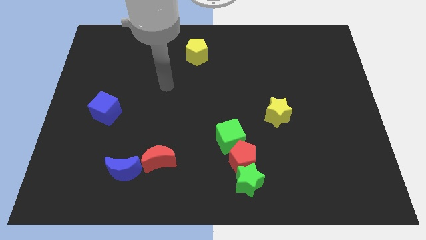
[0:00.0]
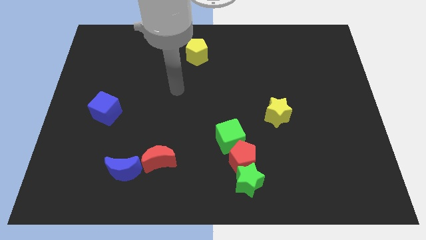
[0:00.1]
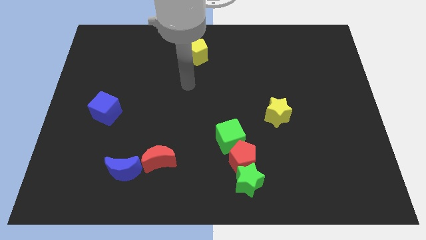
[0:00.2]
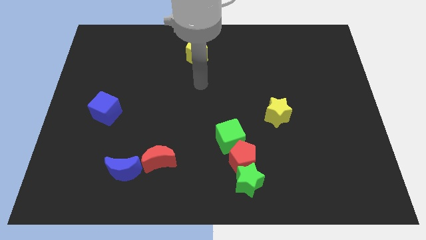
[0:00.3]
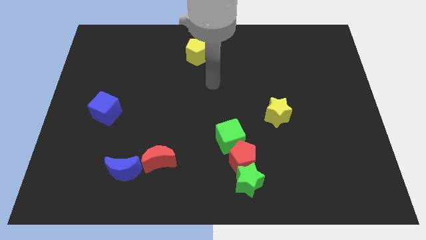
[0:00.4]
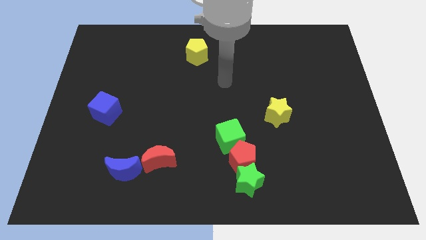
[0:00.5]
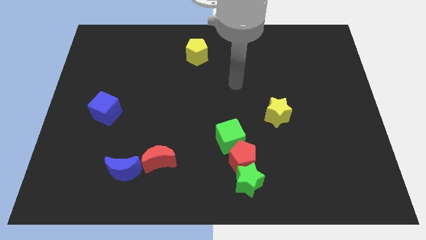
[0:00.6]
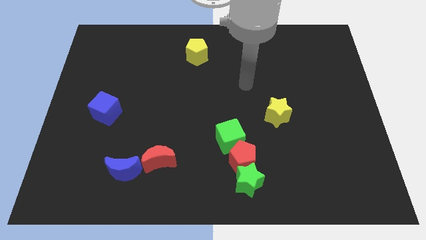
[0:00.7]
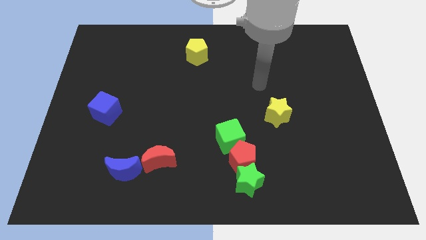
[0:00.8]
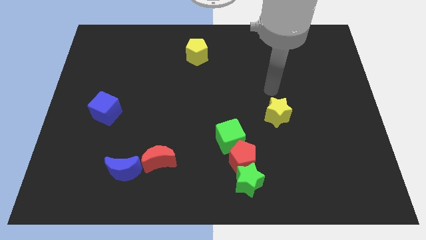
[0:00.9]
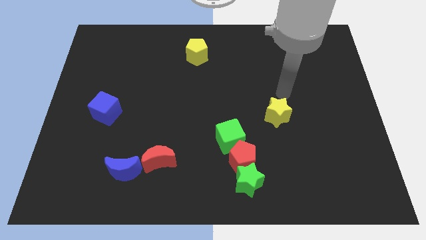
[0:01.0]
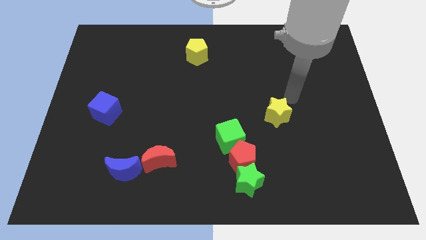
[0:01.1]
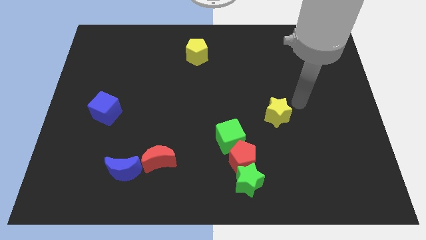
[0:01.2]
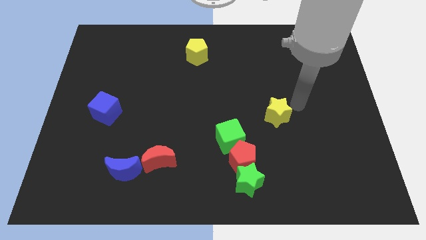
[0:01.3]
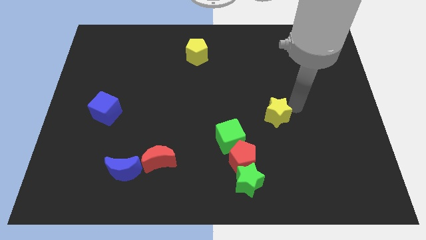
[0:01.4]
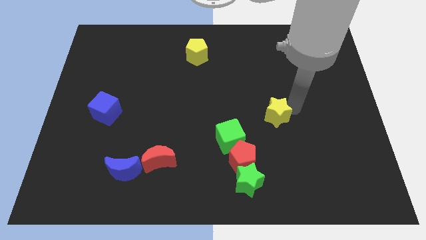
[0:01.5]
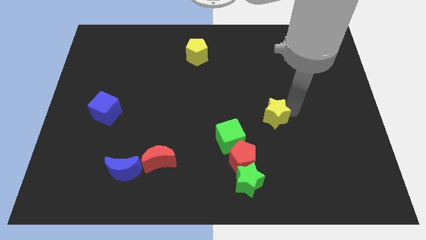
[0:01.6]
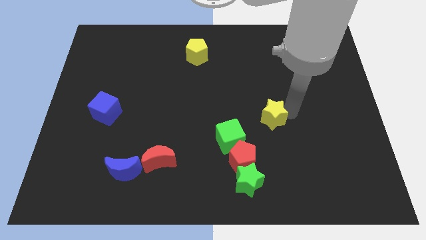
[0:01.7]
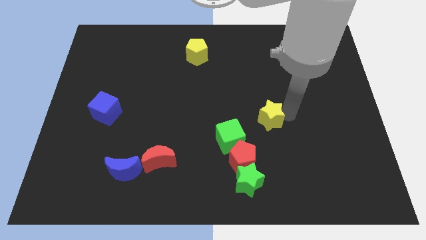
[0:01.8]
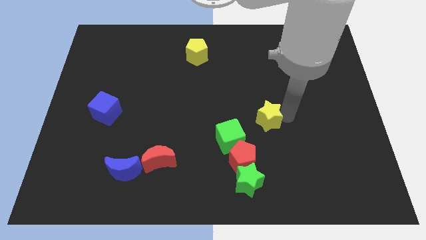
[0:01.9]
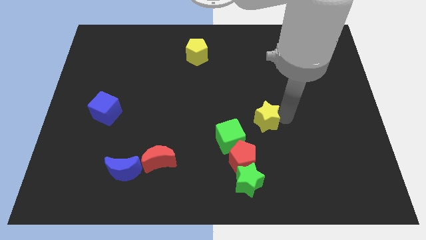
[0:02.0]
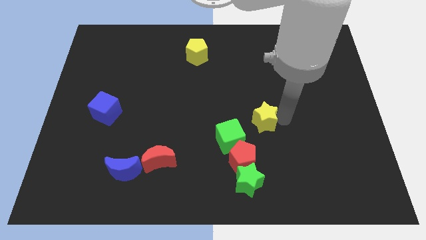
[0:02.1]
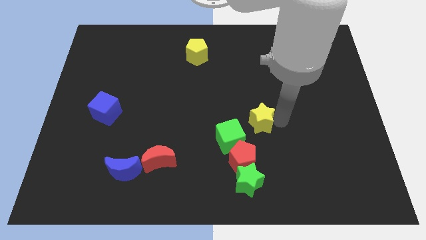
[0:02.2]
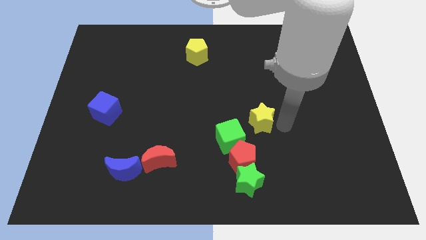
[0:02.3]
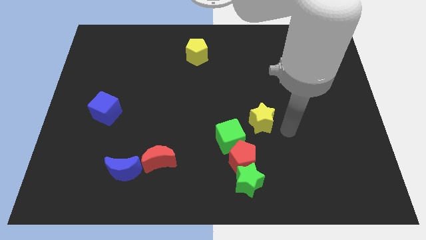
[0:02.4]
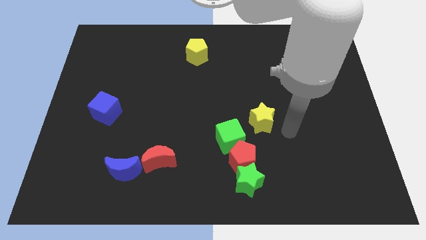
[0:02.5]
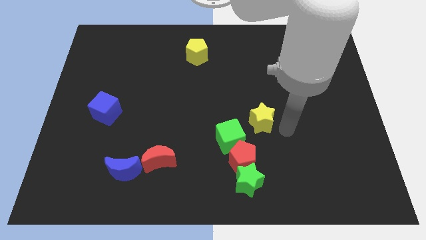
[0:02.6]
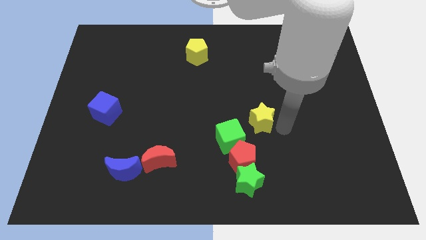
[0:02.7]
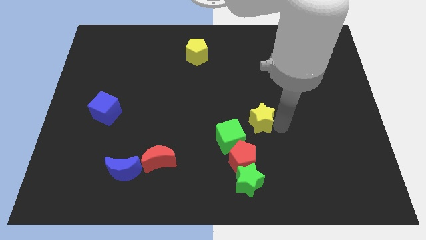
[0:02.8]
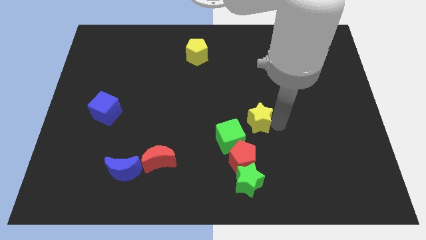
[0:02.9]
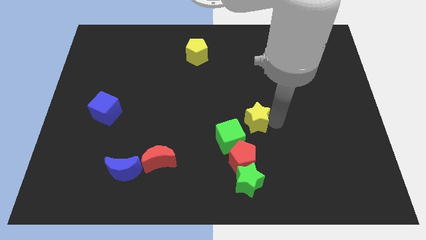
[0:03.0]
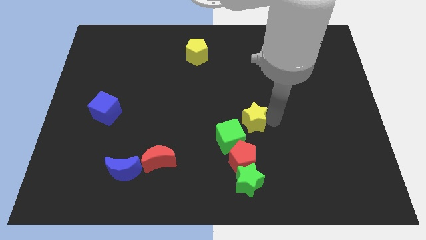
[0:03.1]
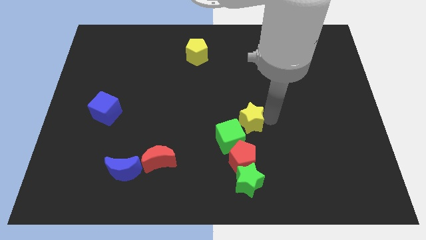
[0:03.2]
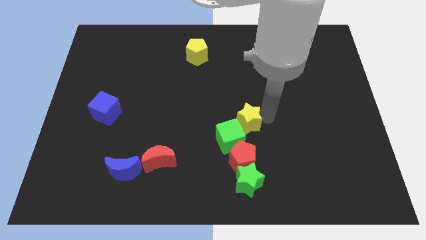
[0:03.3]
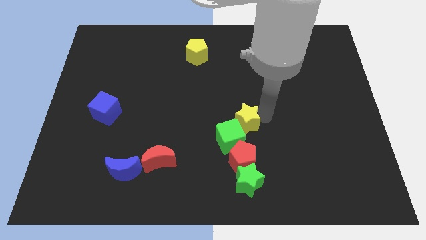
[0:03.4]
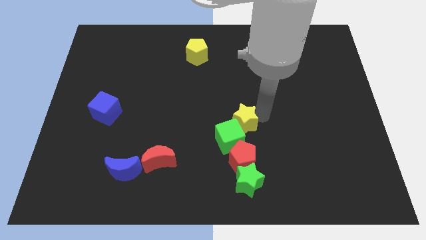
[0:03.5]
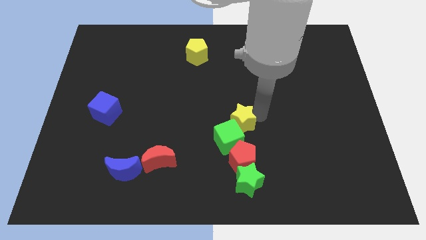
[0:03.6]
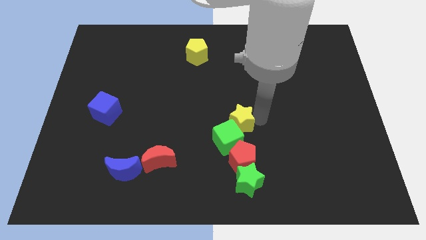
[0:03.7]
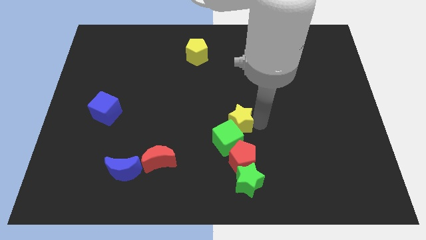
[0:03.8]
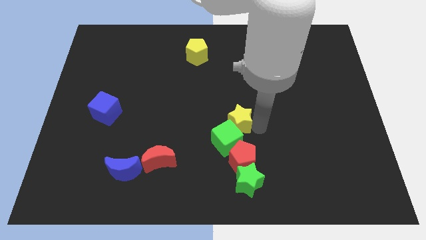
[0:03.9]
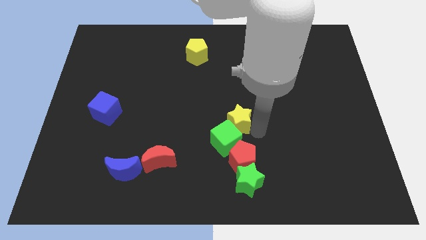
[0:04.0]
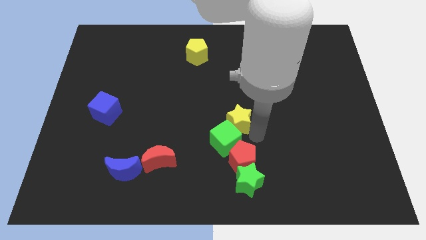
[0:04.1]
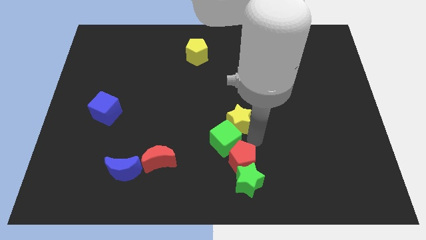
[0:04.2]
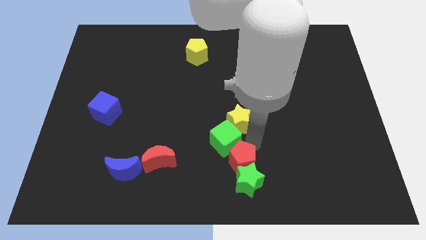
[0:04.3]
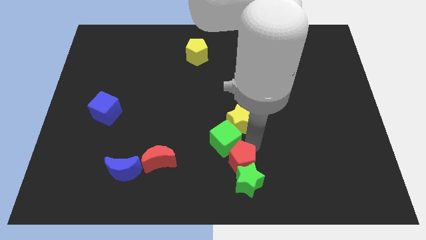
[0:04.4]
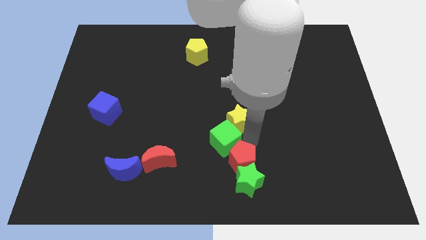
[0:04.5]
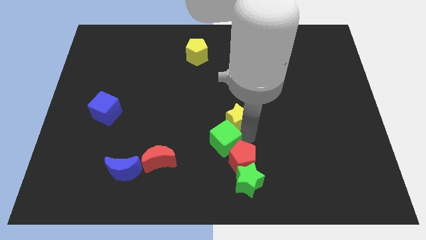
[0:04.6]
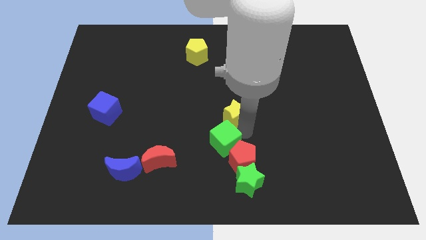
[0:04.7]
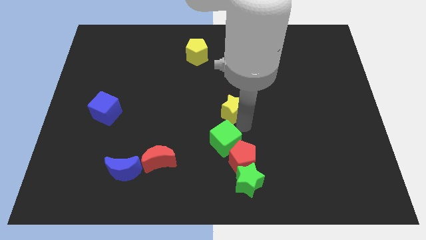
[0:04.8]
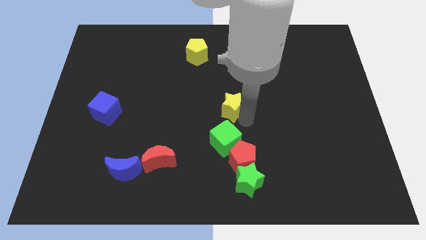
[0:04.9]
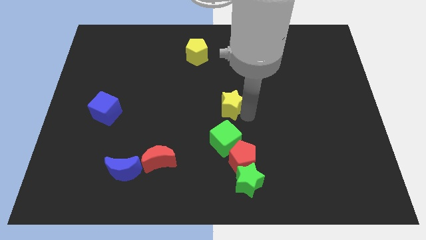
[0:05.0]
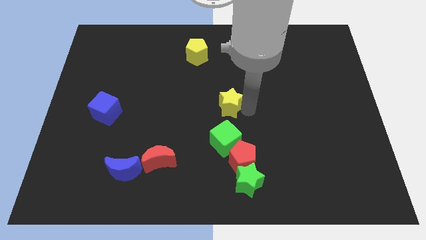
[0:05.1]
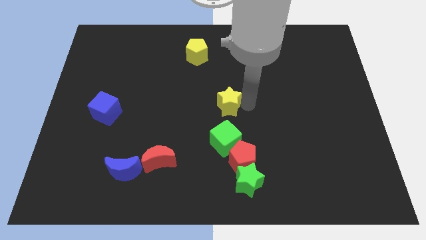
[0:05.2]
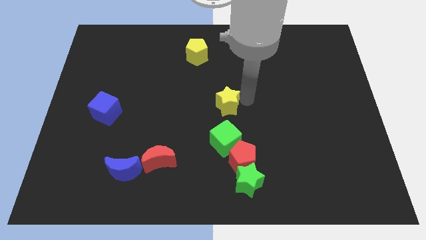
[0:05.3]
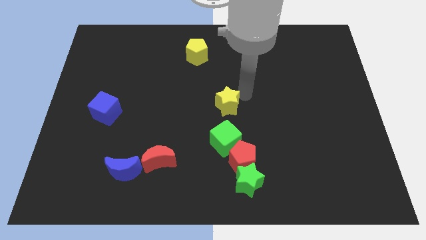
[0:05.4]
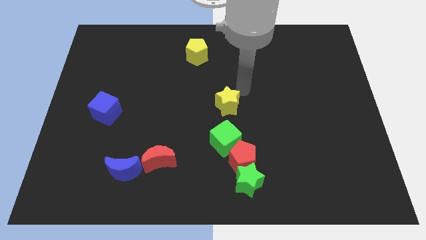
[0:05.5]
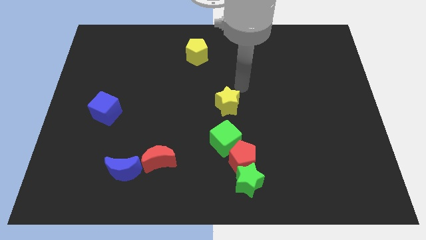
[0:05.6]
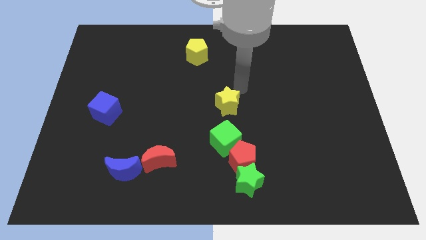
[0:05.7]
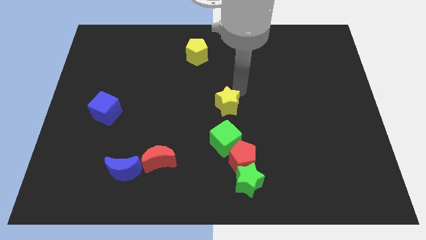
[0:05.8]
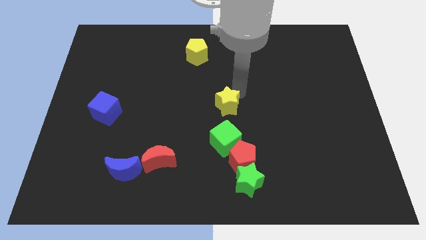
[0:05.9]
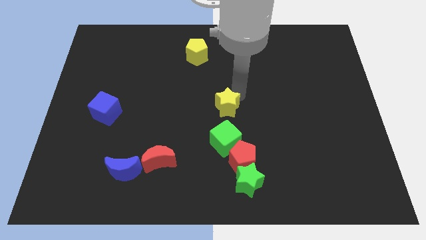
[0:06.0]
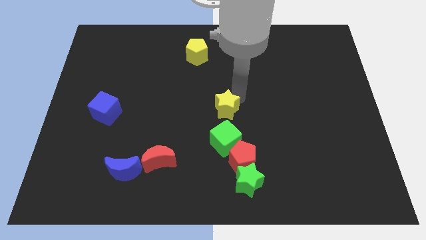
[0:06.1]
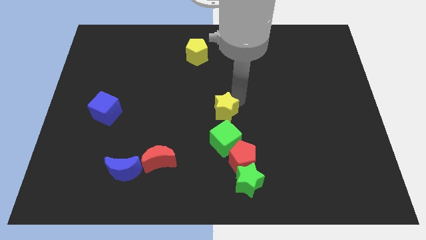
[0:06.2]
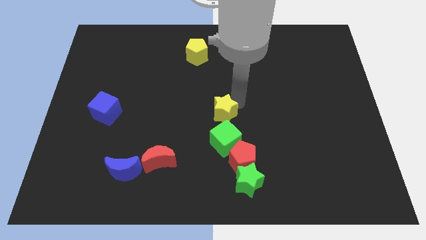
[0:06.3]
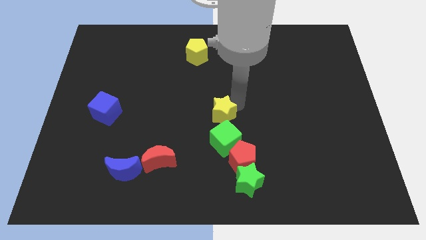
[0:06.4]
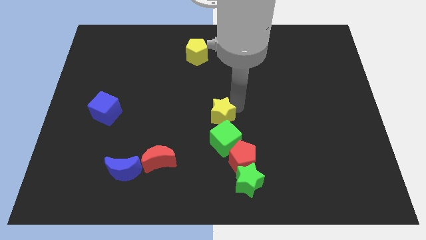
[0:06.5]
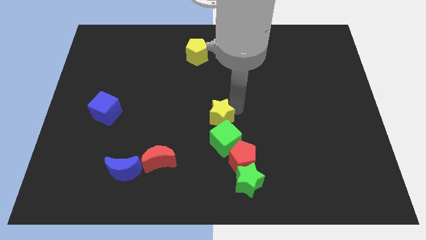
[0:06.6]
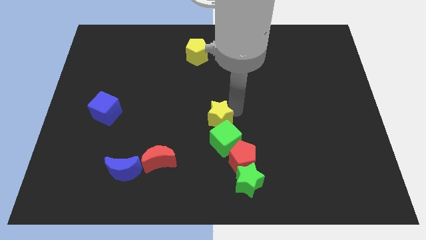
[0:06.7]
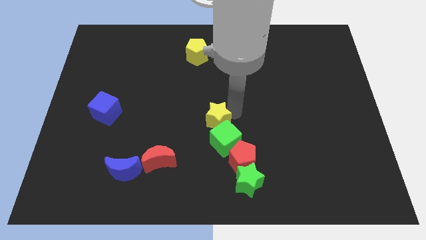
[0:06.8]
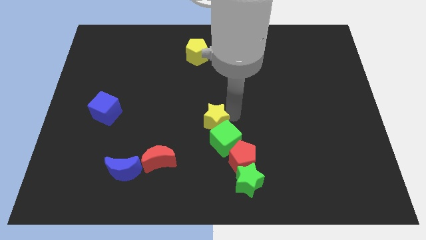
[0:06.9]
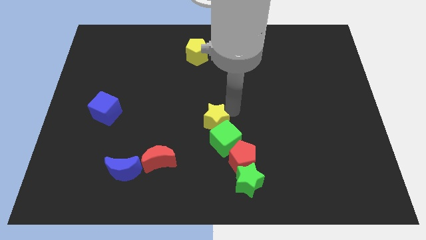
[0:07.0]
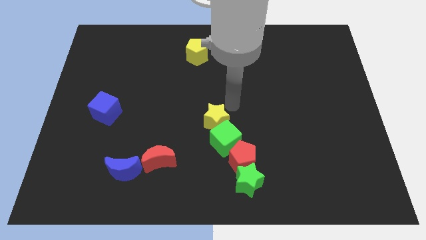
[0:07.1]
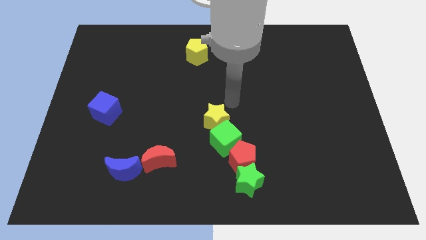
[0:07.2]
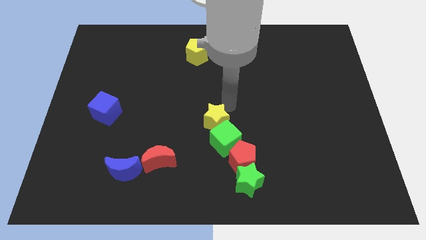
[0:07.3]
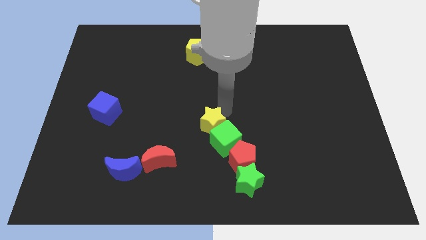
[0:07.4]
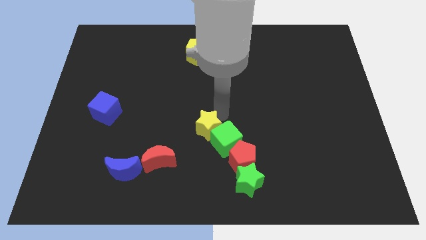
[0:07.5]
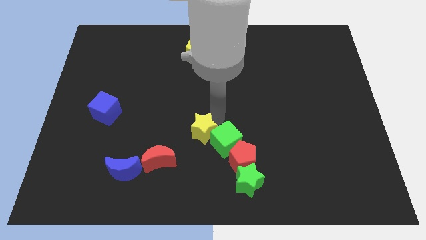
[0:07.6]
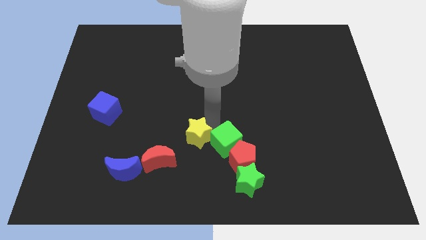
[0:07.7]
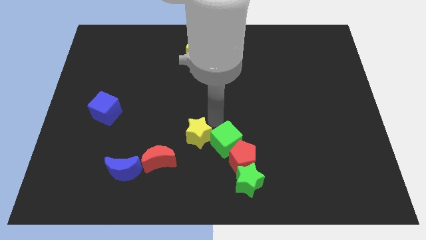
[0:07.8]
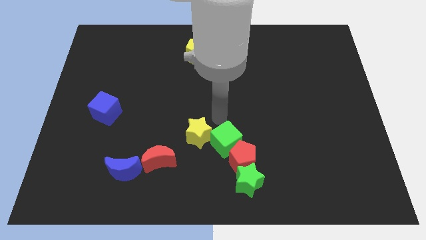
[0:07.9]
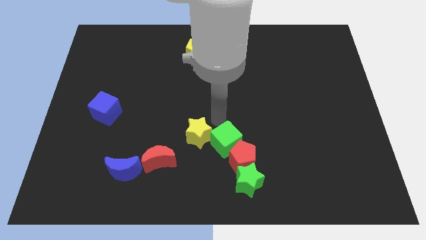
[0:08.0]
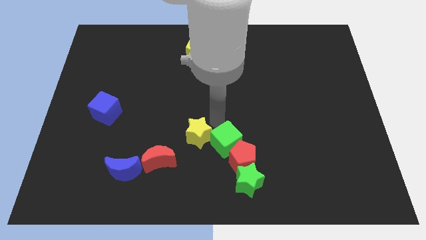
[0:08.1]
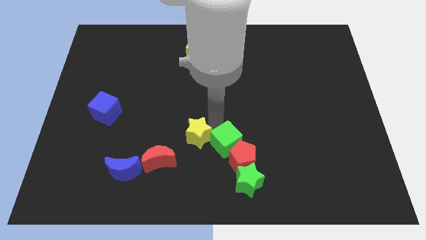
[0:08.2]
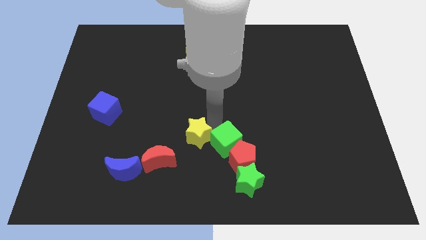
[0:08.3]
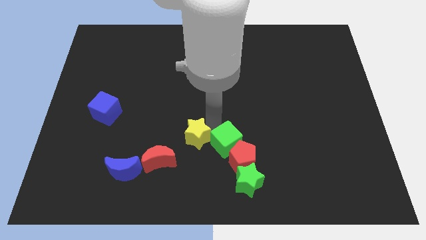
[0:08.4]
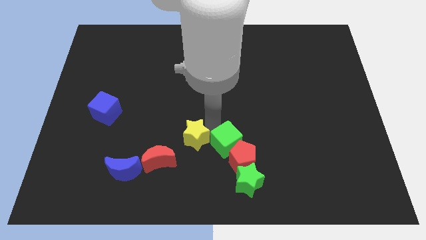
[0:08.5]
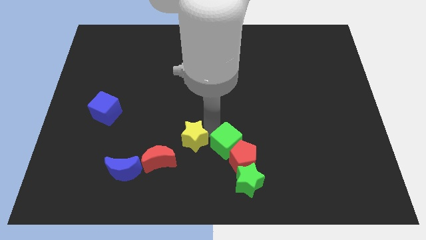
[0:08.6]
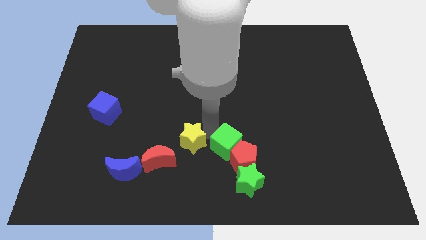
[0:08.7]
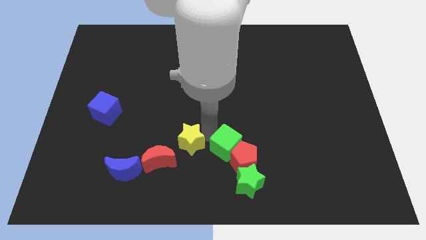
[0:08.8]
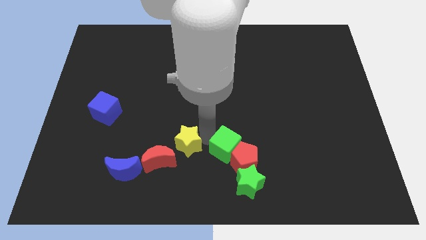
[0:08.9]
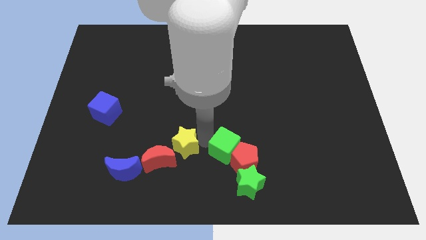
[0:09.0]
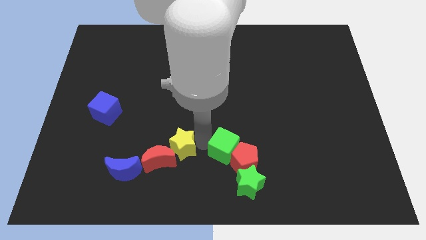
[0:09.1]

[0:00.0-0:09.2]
move the yellow star next to the red moon
